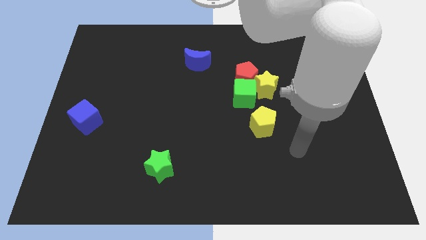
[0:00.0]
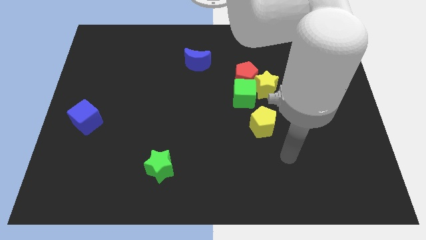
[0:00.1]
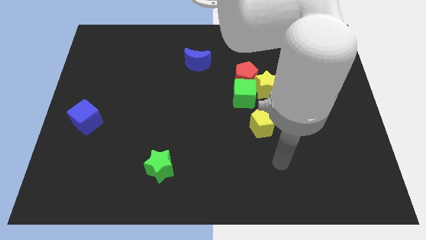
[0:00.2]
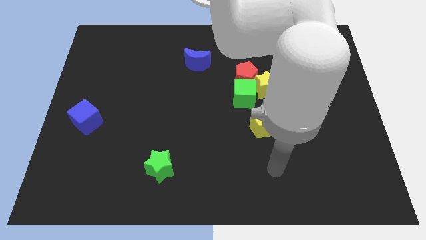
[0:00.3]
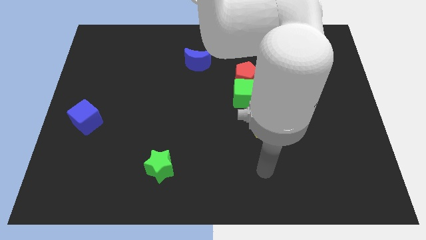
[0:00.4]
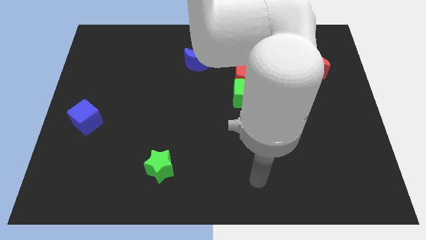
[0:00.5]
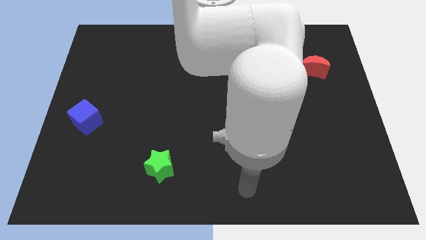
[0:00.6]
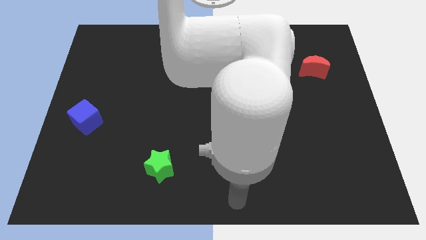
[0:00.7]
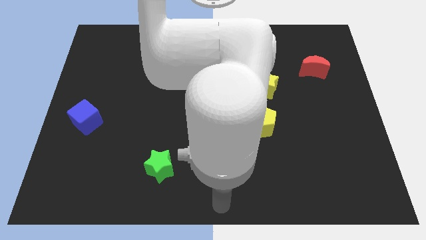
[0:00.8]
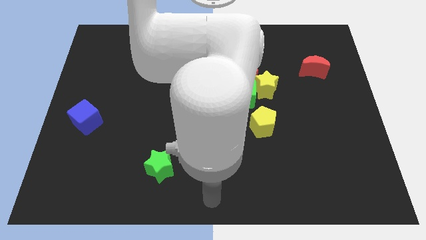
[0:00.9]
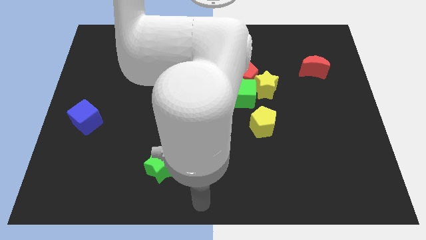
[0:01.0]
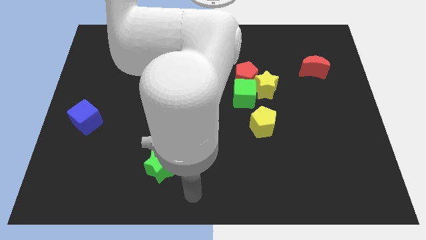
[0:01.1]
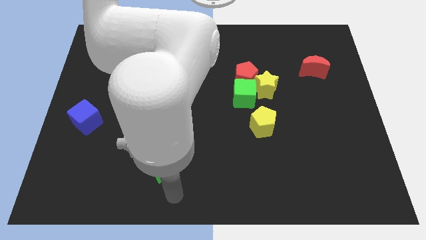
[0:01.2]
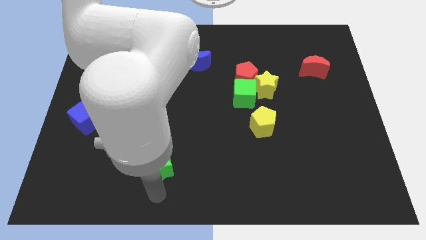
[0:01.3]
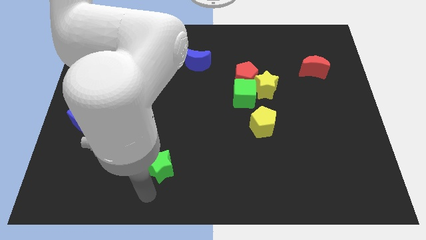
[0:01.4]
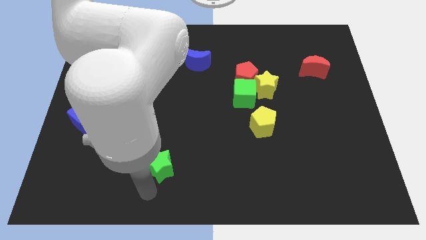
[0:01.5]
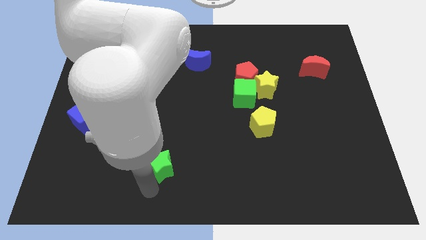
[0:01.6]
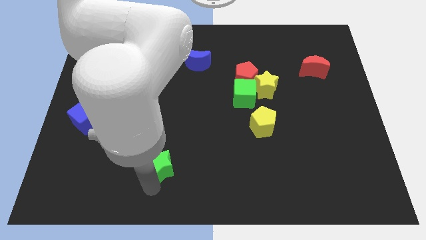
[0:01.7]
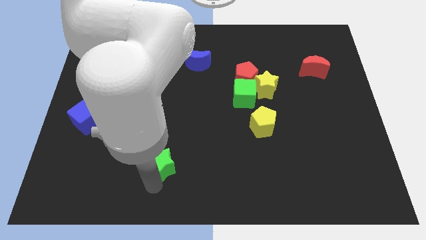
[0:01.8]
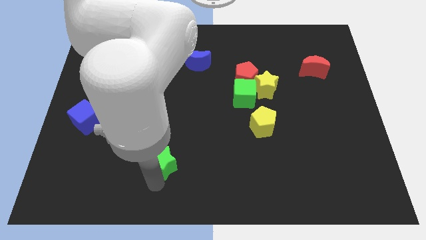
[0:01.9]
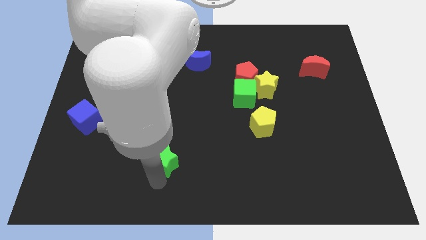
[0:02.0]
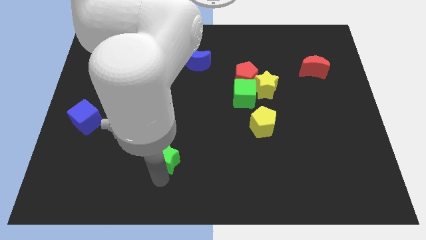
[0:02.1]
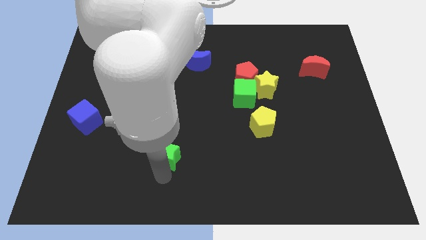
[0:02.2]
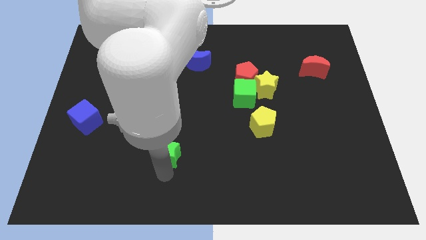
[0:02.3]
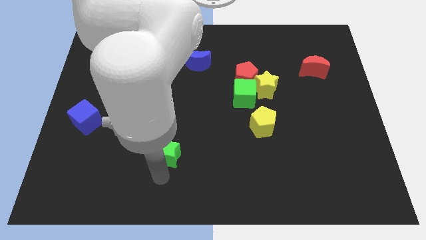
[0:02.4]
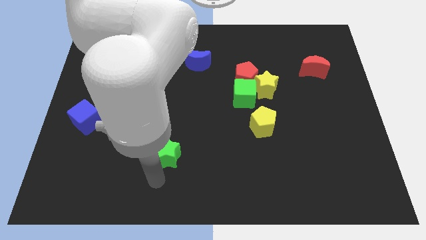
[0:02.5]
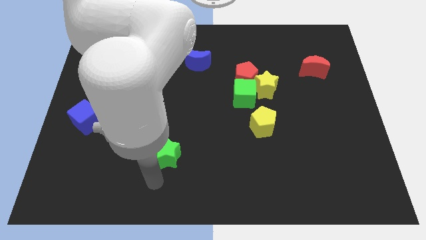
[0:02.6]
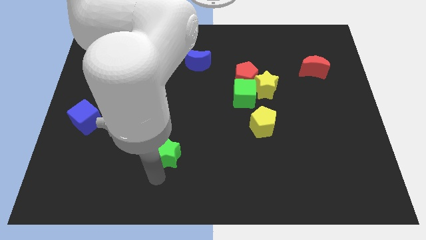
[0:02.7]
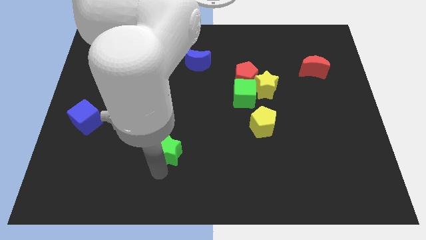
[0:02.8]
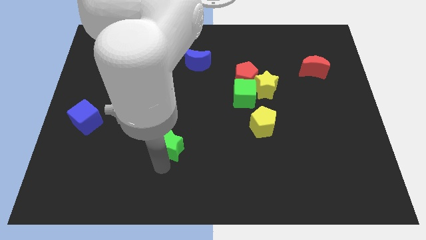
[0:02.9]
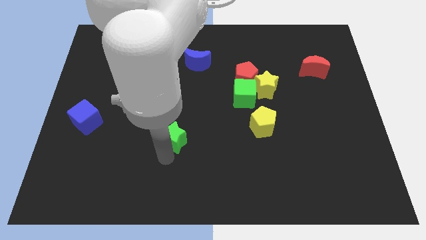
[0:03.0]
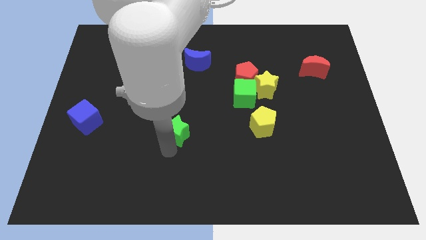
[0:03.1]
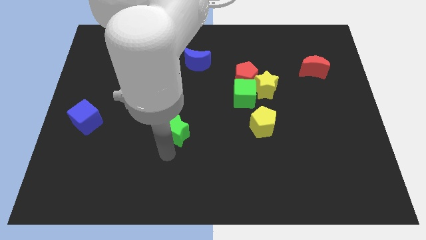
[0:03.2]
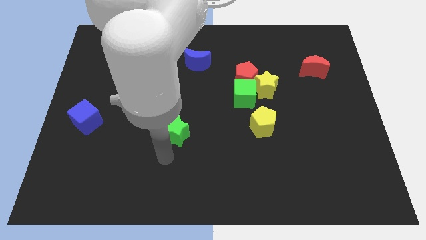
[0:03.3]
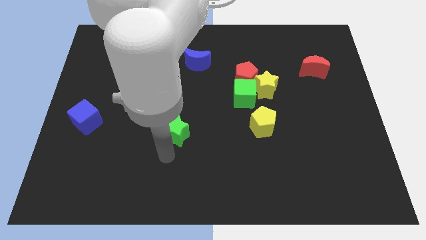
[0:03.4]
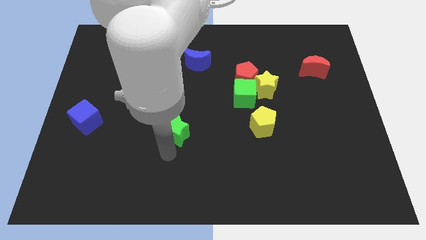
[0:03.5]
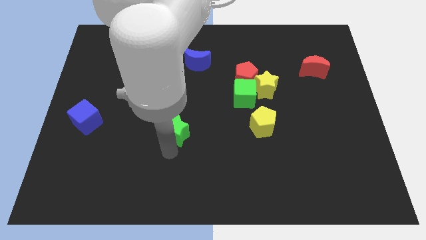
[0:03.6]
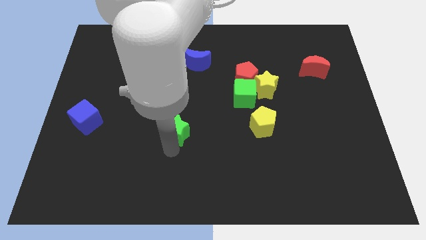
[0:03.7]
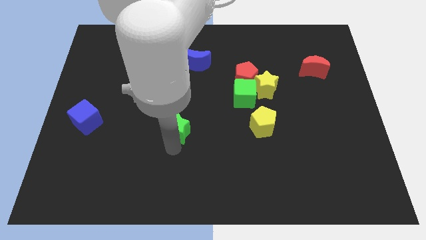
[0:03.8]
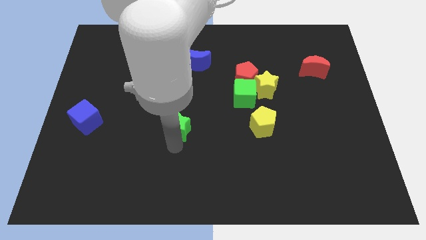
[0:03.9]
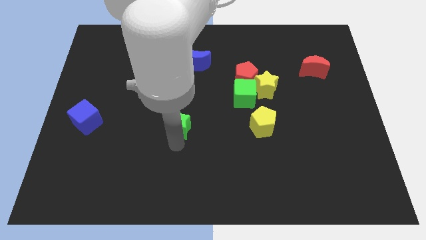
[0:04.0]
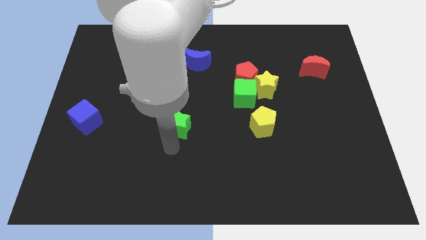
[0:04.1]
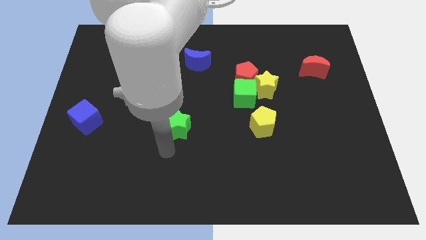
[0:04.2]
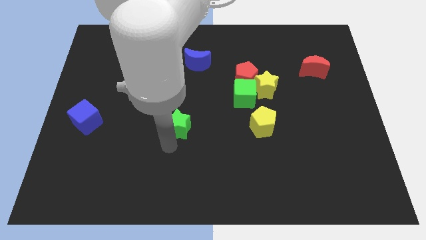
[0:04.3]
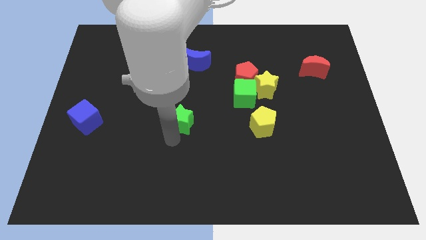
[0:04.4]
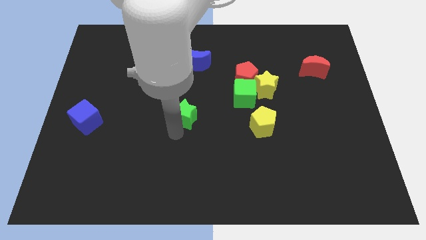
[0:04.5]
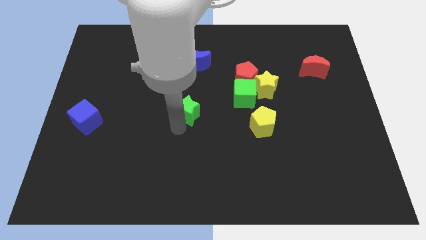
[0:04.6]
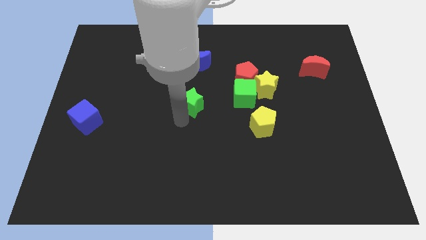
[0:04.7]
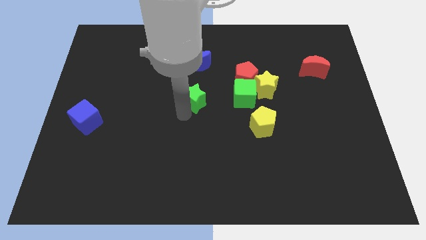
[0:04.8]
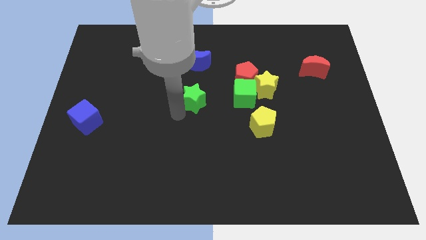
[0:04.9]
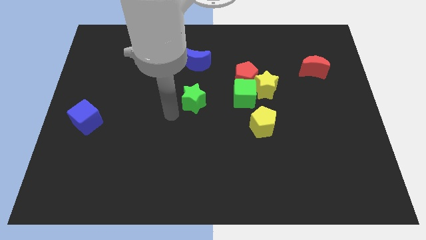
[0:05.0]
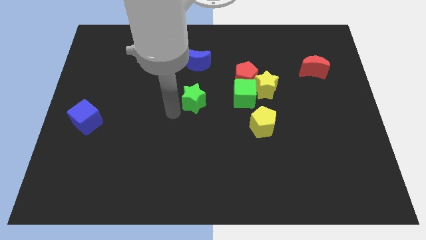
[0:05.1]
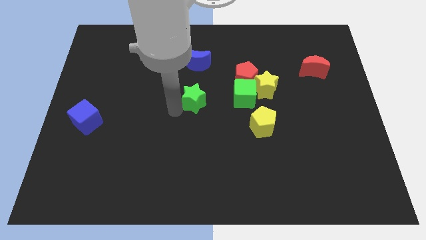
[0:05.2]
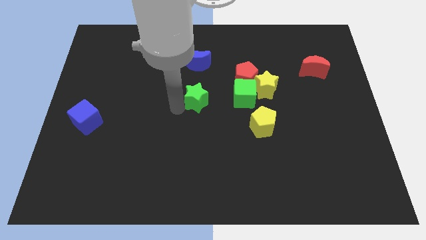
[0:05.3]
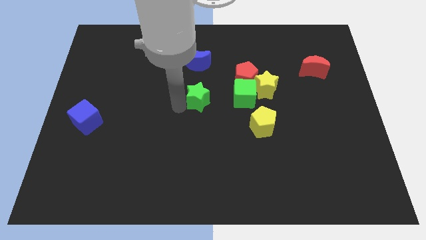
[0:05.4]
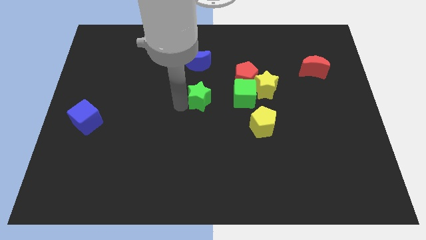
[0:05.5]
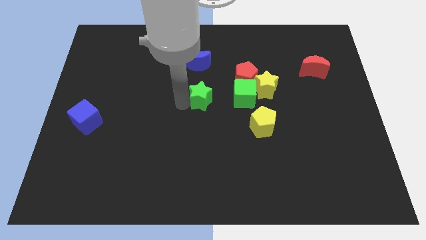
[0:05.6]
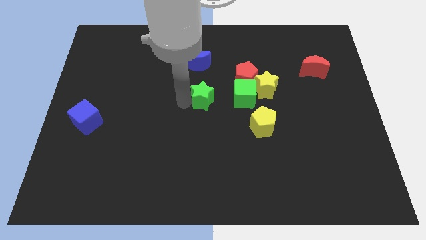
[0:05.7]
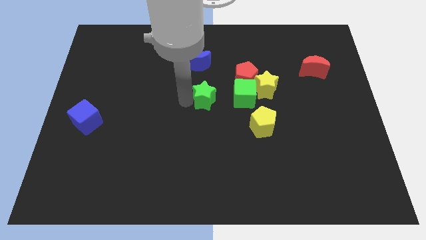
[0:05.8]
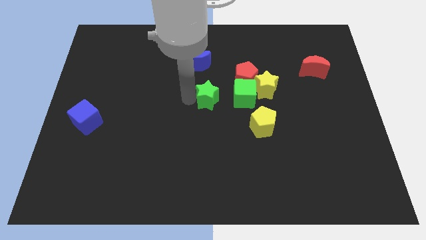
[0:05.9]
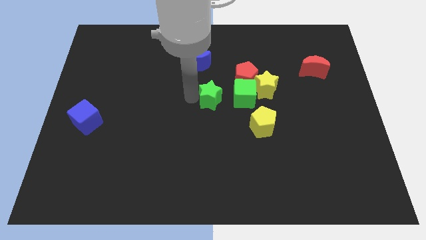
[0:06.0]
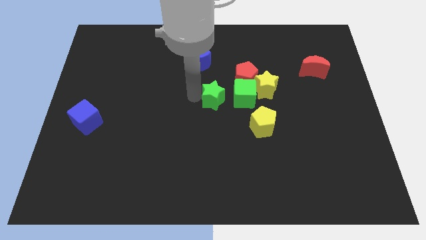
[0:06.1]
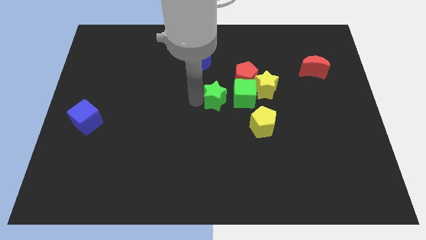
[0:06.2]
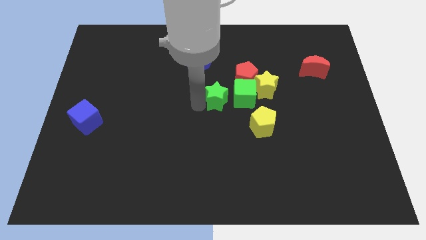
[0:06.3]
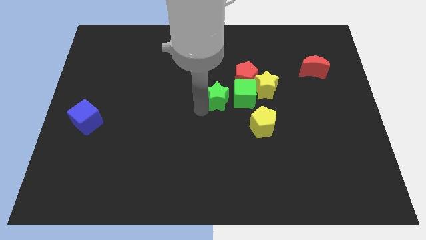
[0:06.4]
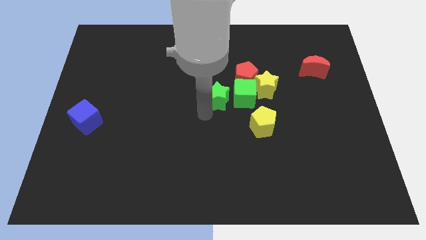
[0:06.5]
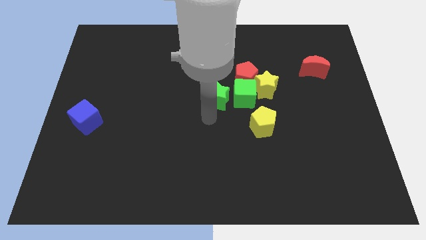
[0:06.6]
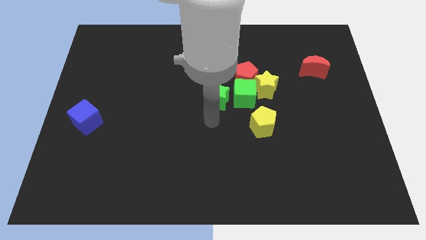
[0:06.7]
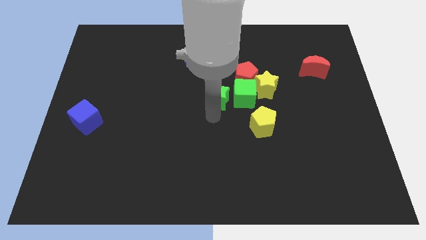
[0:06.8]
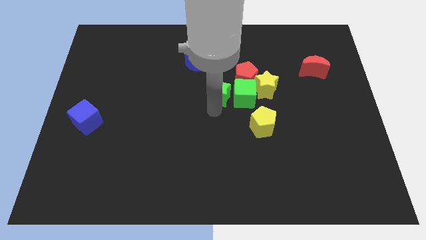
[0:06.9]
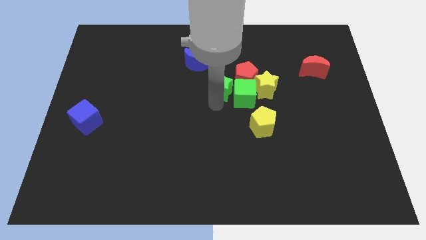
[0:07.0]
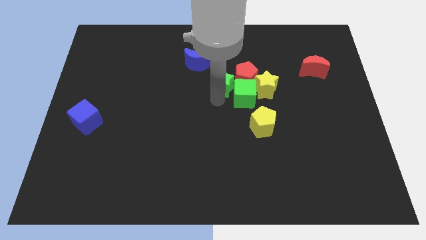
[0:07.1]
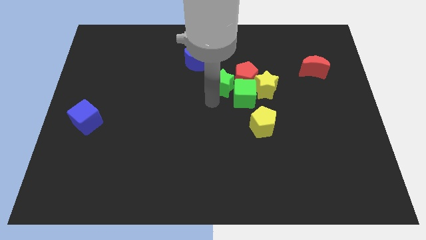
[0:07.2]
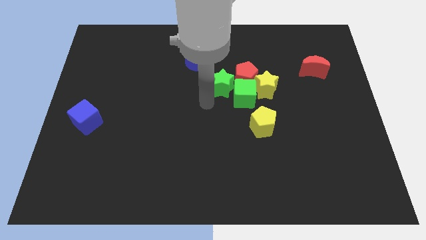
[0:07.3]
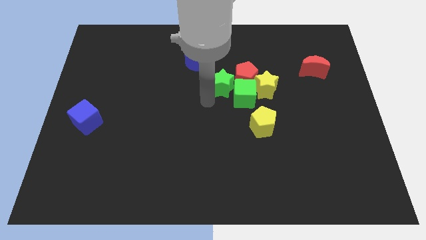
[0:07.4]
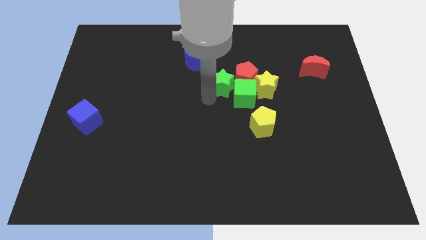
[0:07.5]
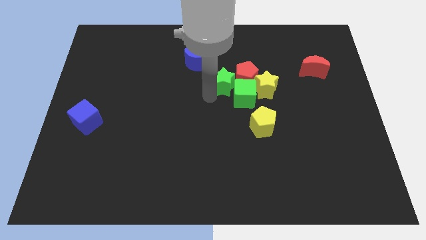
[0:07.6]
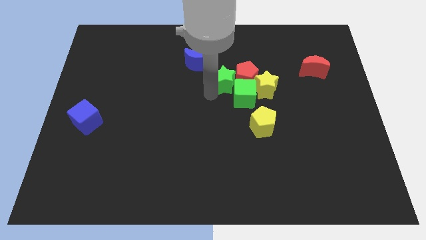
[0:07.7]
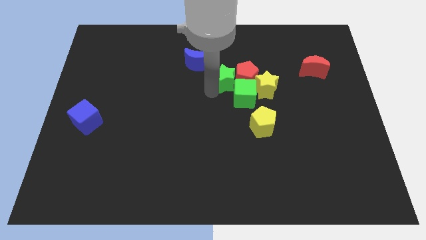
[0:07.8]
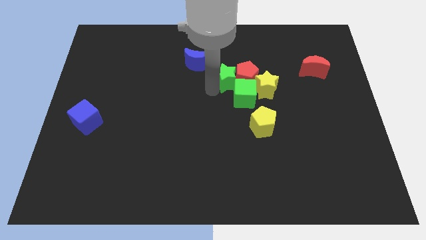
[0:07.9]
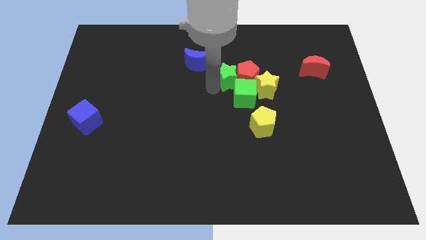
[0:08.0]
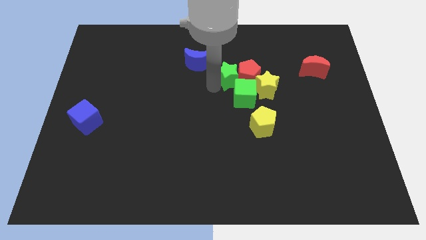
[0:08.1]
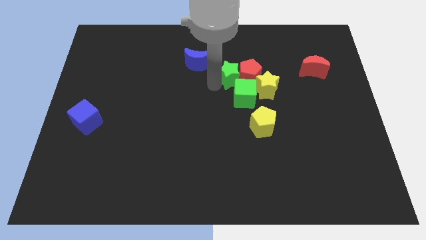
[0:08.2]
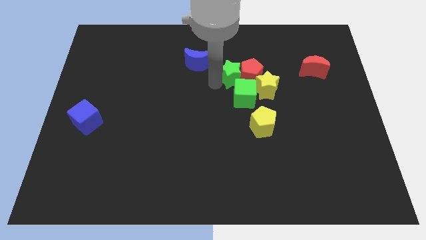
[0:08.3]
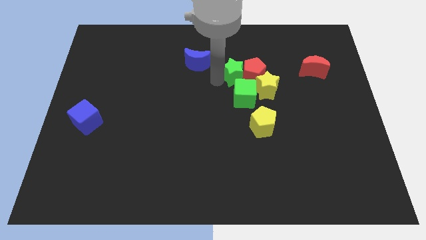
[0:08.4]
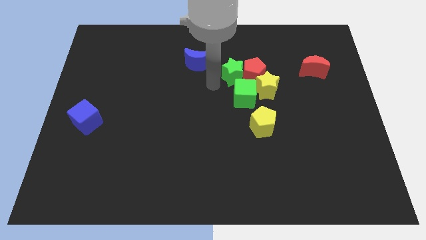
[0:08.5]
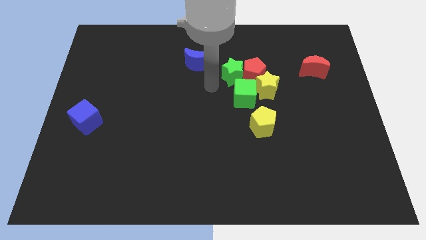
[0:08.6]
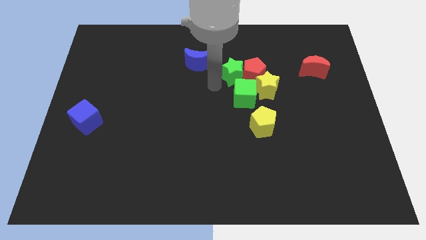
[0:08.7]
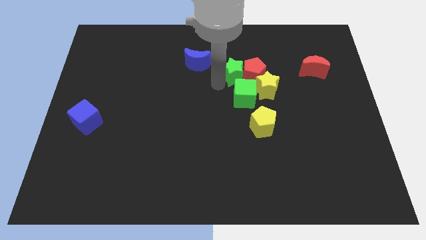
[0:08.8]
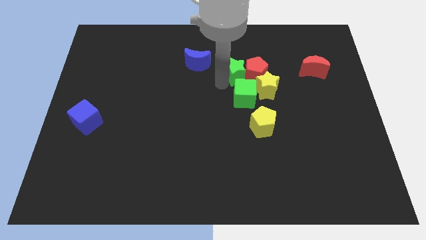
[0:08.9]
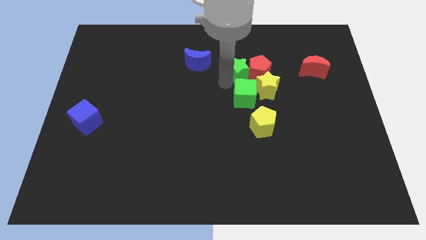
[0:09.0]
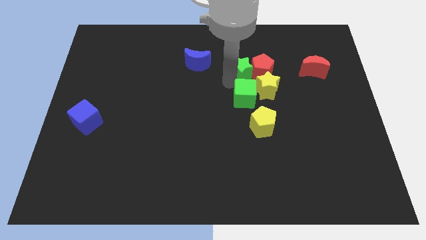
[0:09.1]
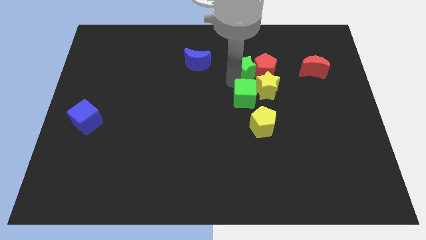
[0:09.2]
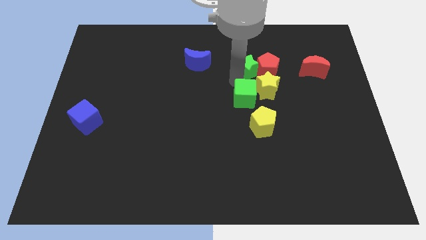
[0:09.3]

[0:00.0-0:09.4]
slide the green star above the yellow star
